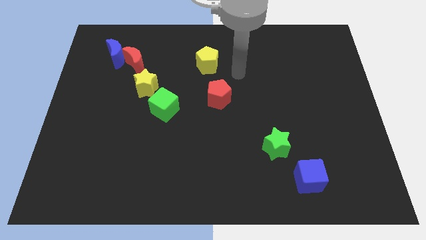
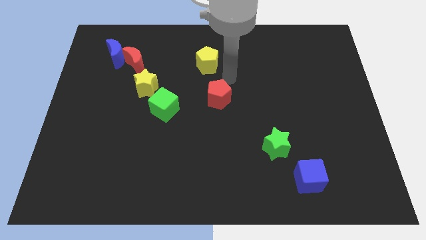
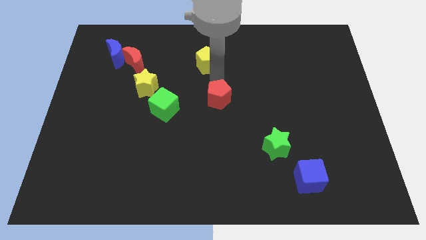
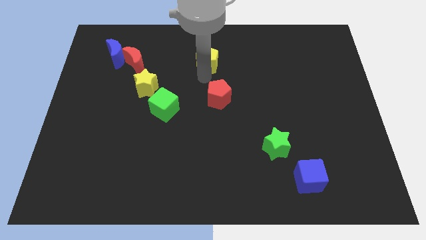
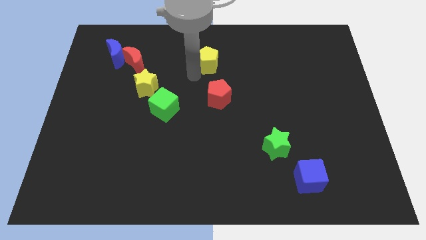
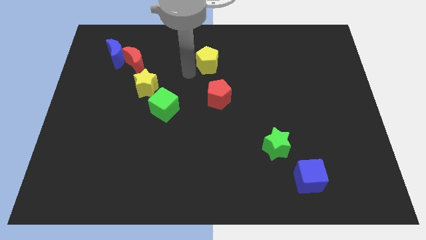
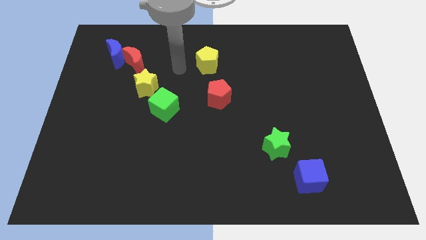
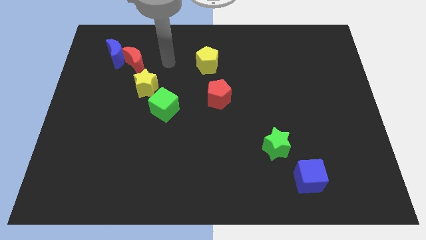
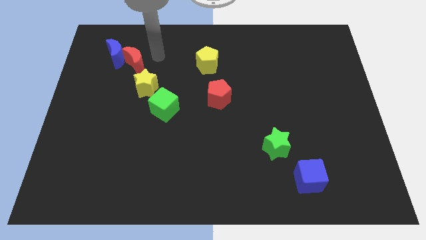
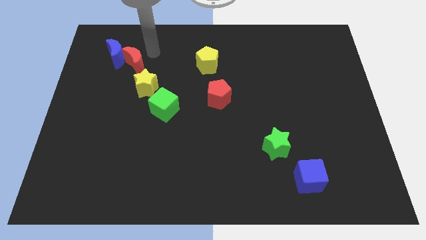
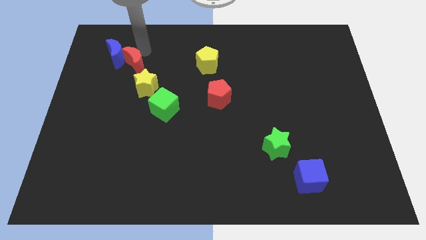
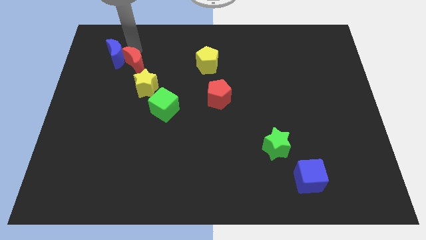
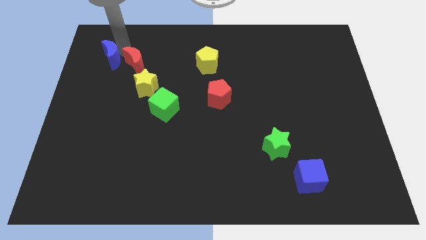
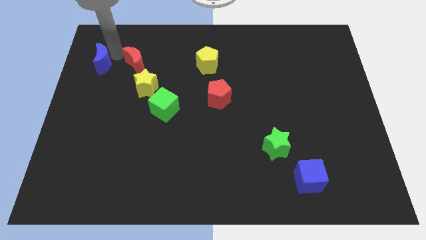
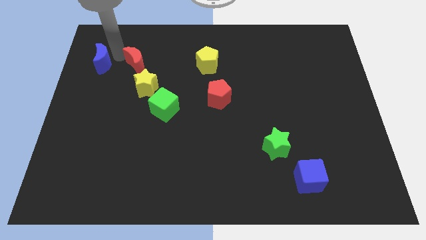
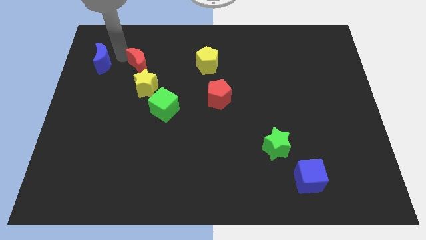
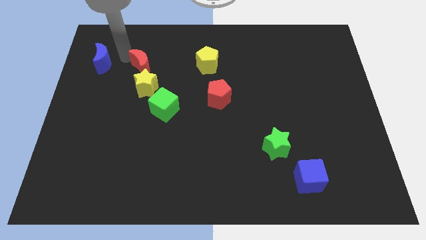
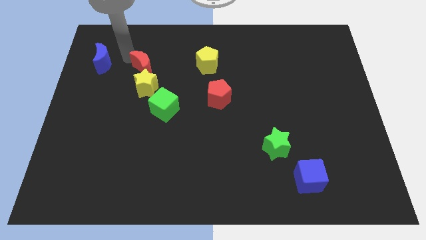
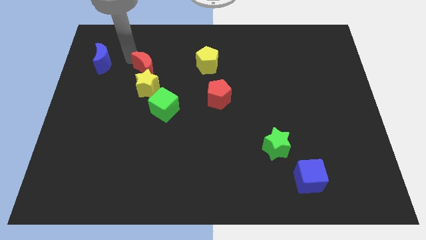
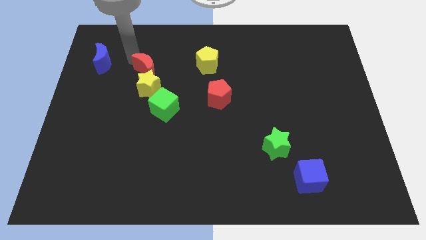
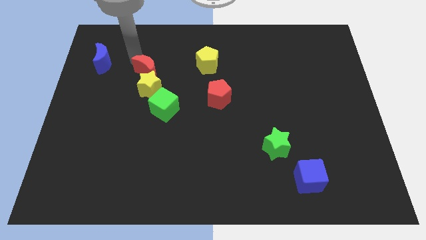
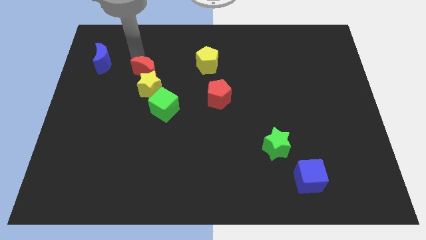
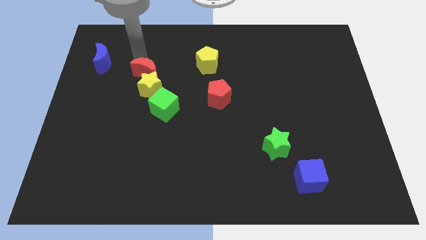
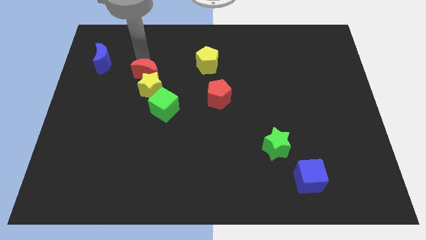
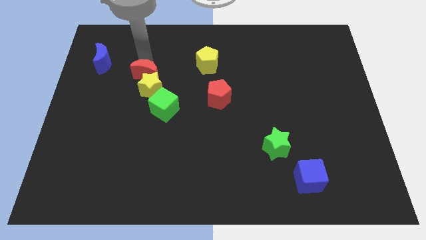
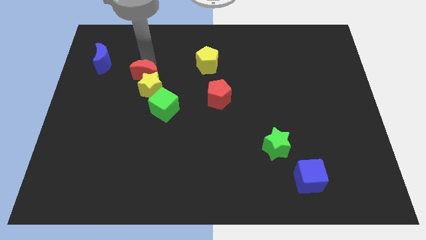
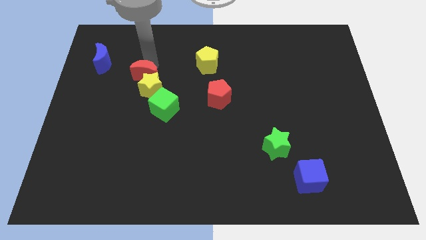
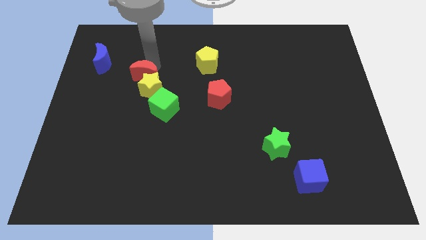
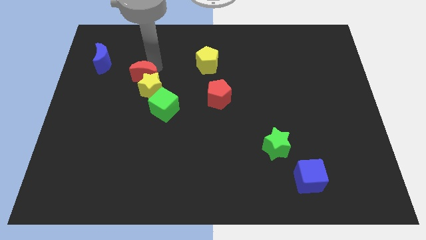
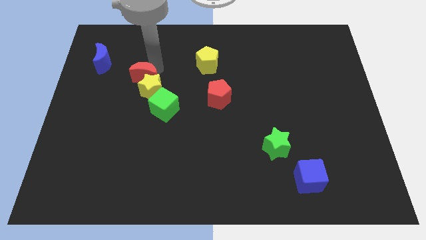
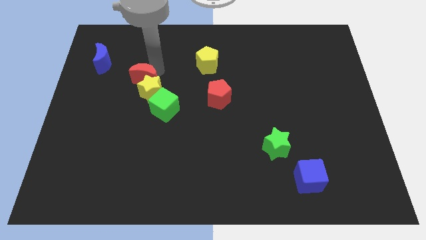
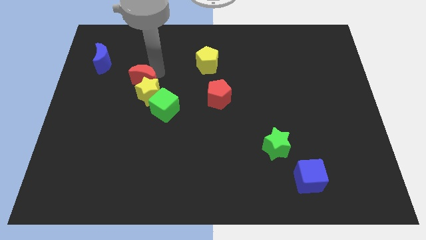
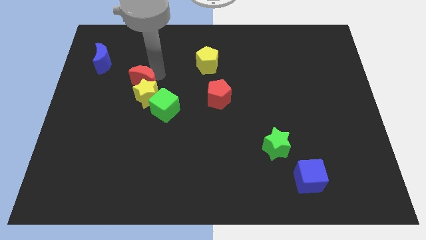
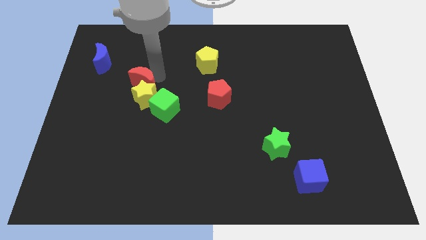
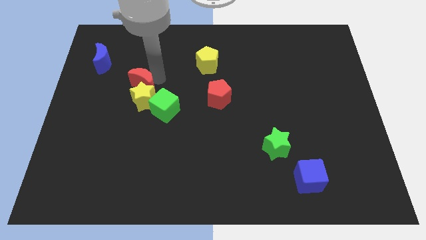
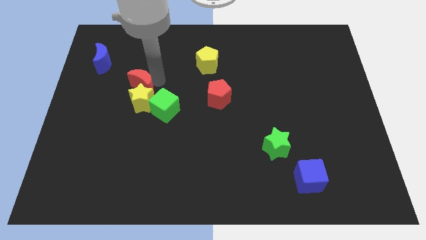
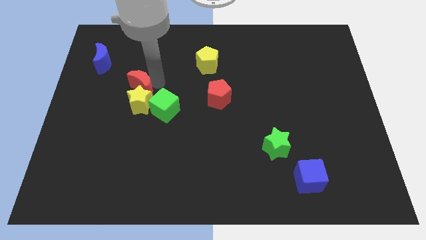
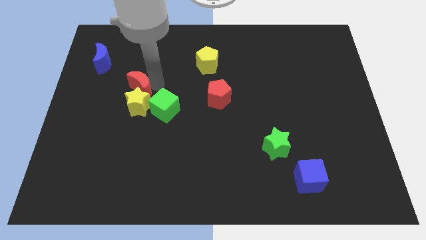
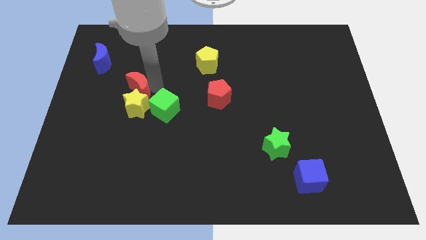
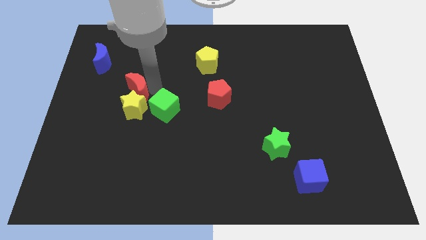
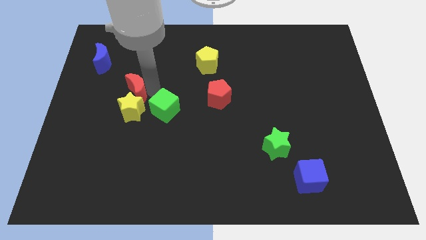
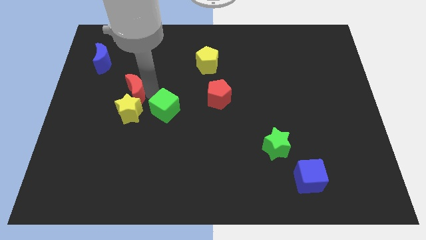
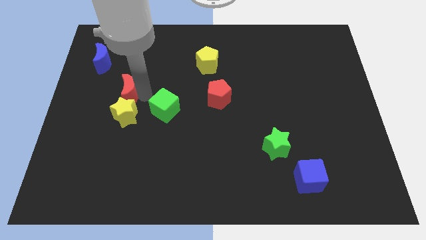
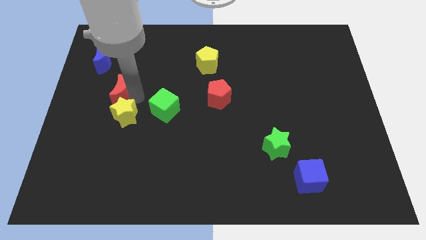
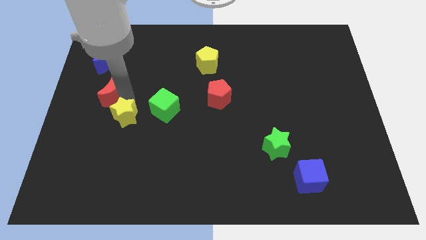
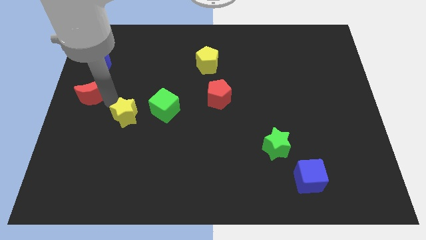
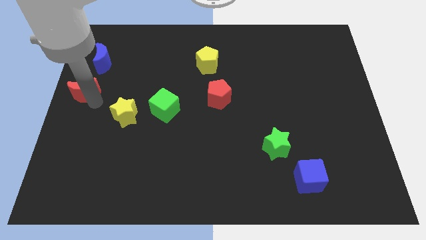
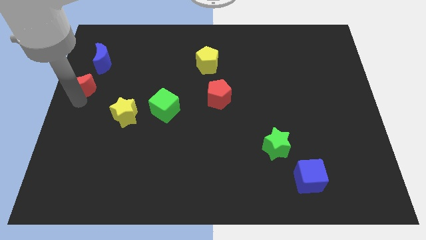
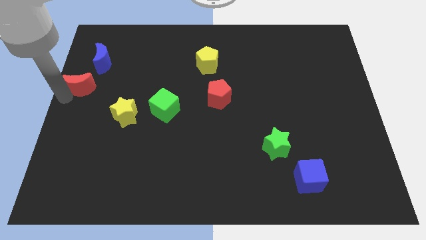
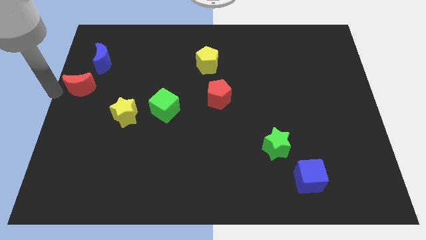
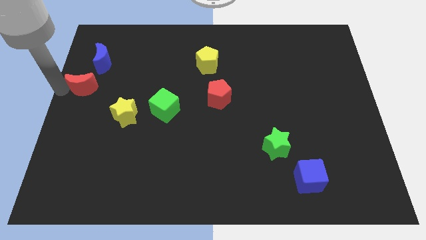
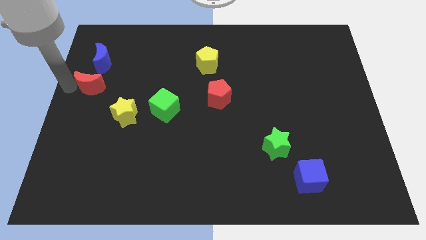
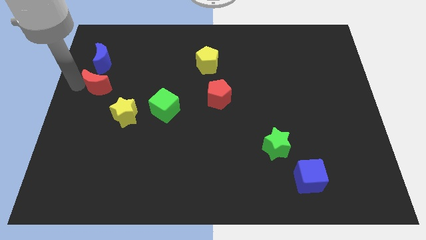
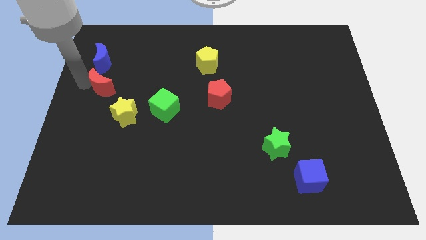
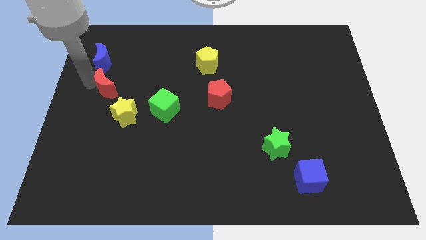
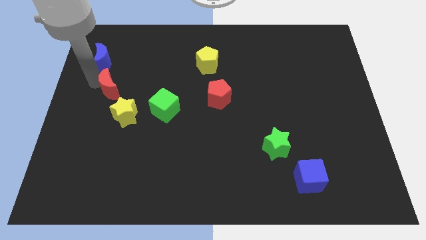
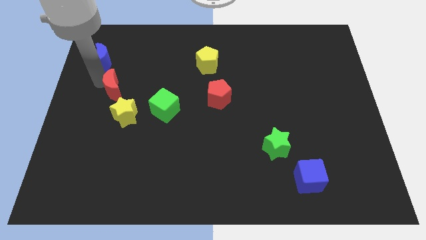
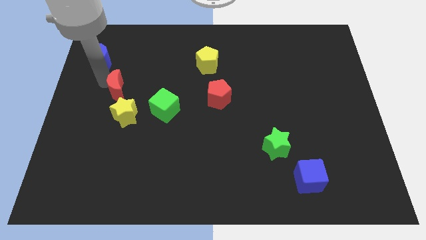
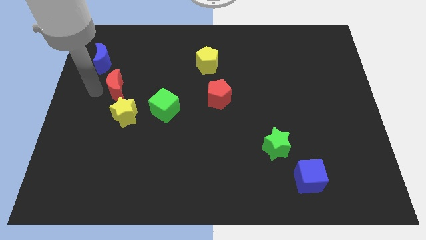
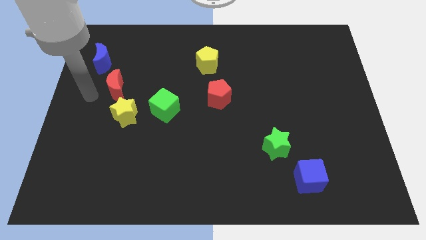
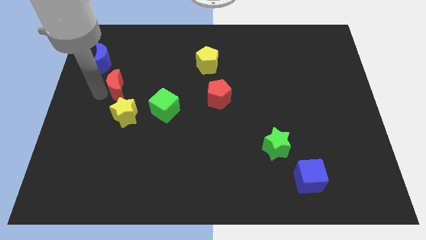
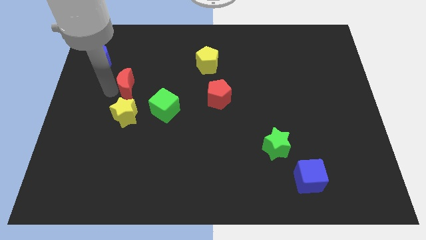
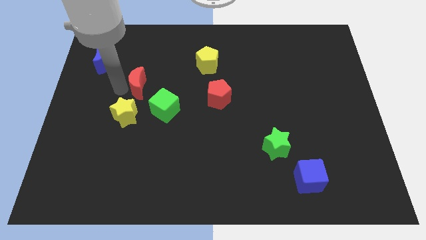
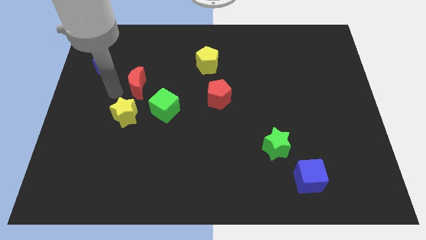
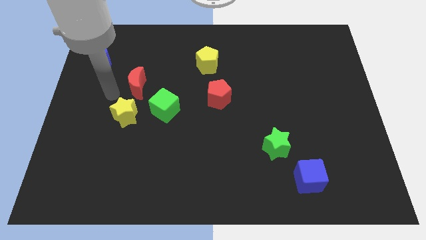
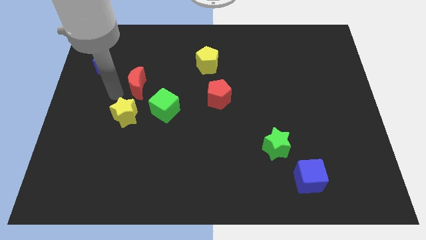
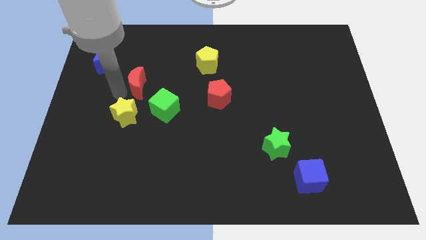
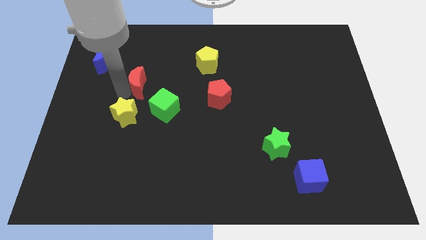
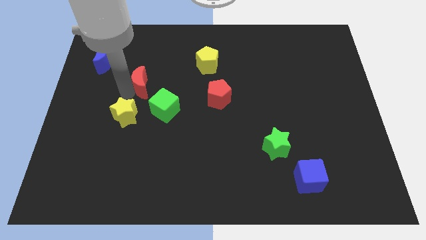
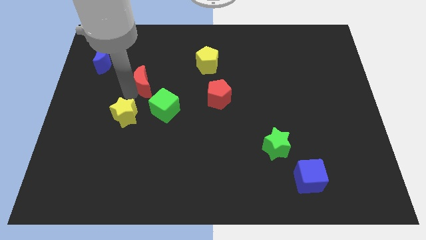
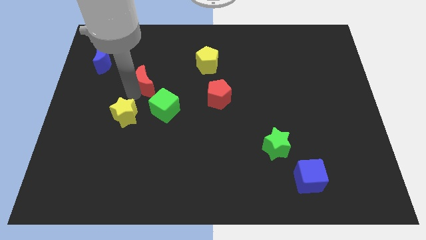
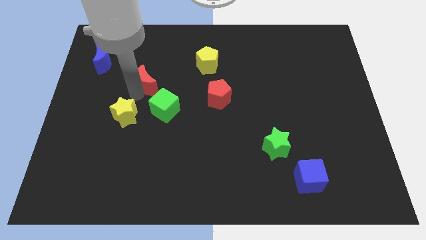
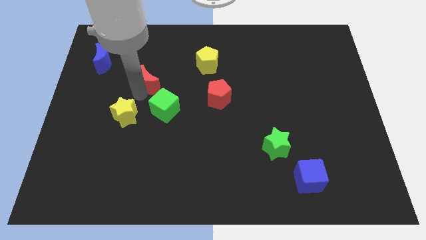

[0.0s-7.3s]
slide the red moon to the top of the green cube
